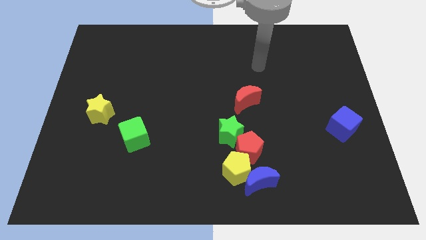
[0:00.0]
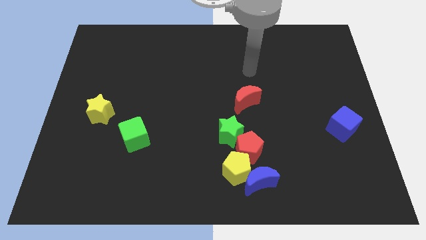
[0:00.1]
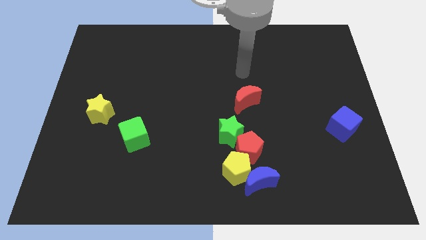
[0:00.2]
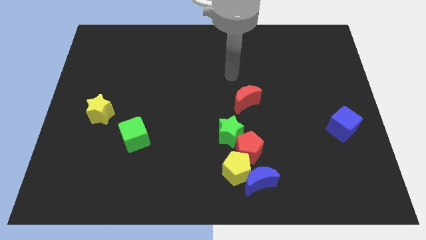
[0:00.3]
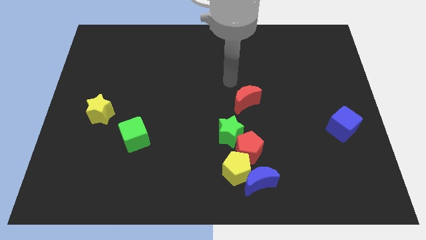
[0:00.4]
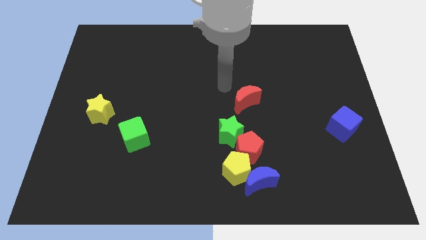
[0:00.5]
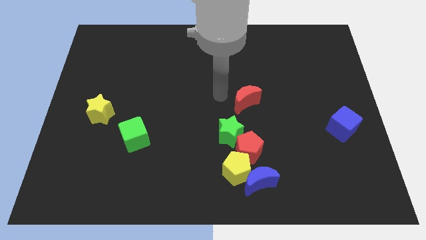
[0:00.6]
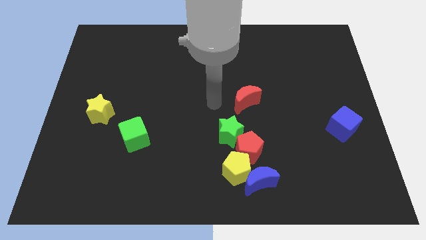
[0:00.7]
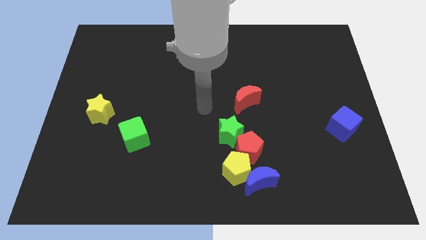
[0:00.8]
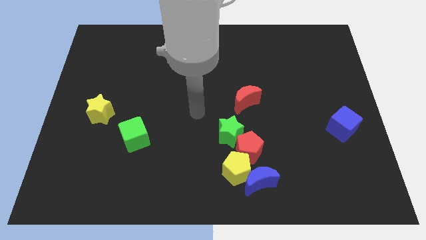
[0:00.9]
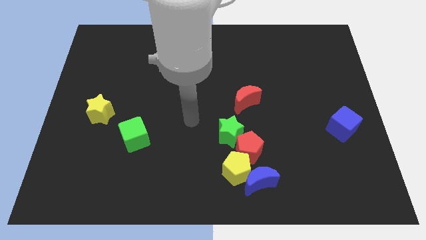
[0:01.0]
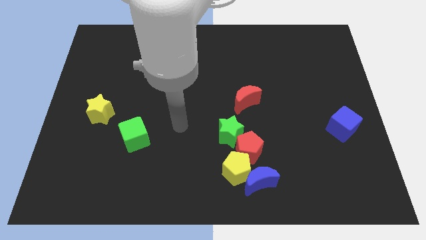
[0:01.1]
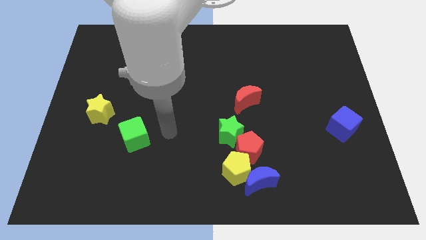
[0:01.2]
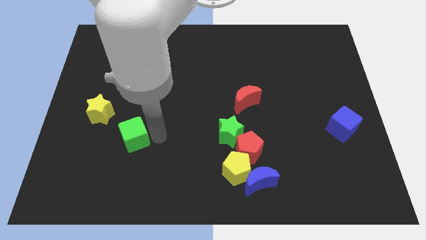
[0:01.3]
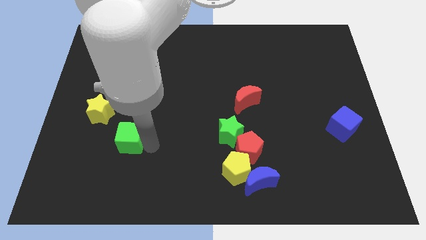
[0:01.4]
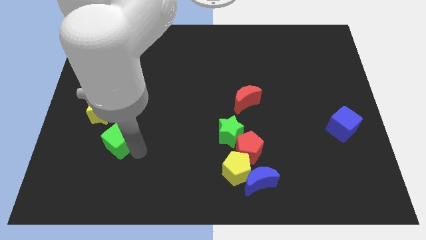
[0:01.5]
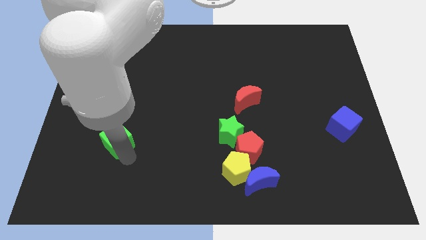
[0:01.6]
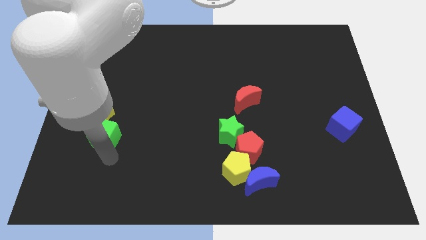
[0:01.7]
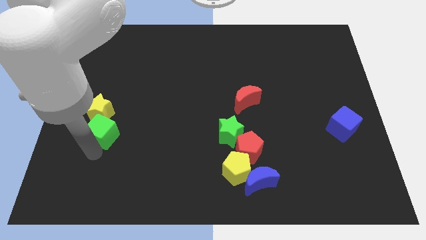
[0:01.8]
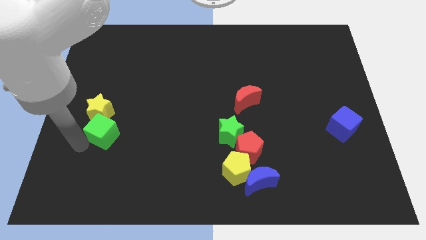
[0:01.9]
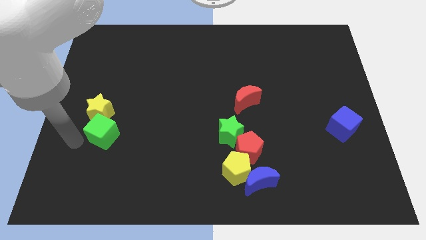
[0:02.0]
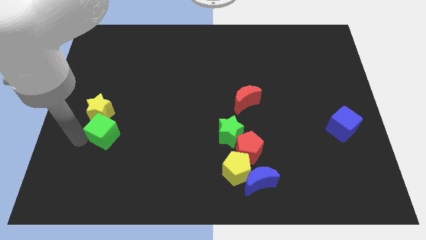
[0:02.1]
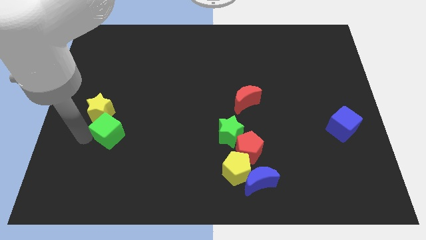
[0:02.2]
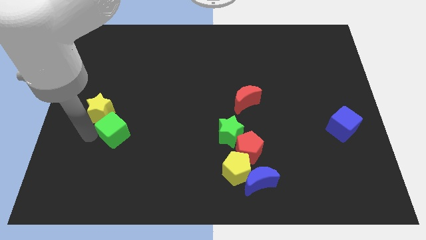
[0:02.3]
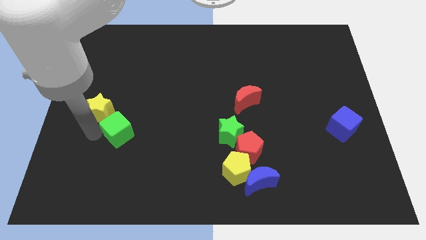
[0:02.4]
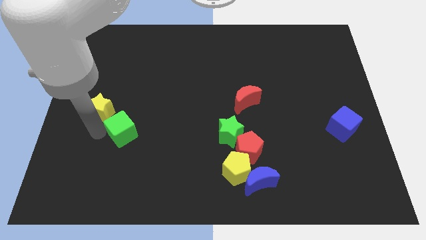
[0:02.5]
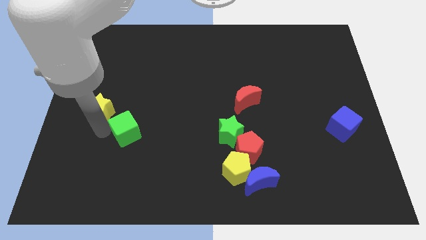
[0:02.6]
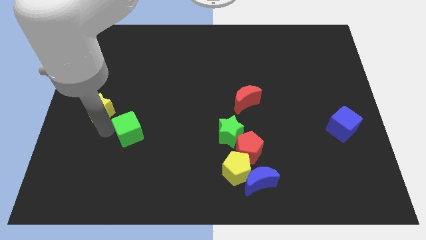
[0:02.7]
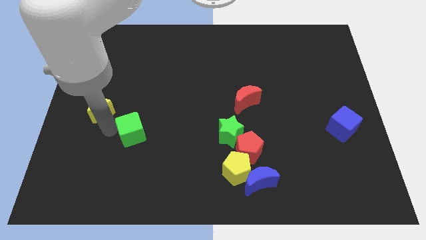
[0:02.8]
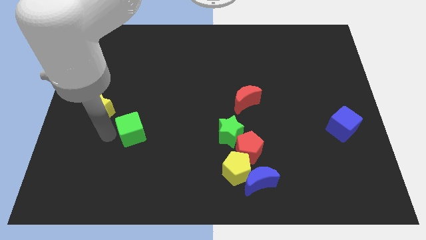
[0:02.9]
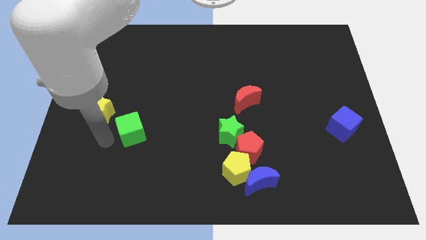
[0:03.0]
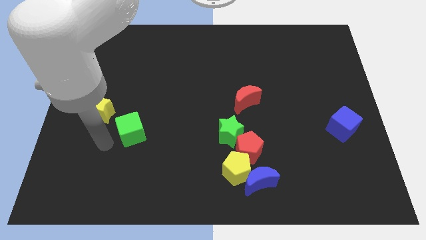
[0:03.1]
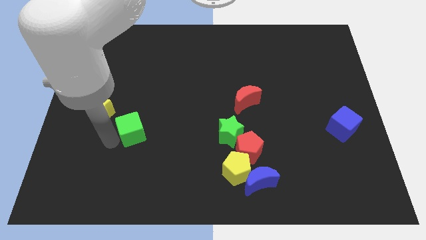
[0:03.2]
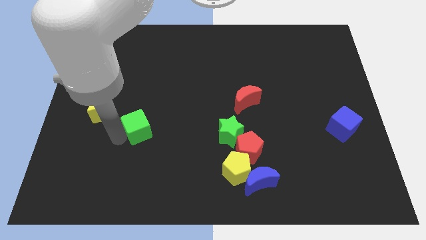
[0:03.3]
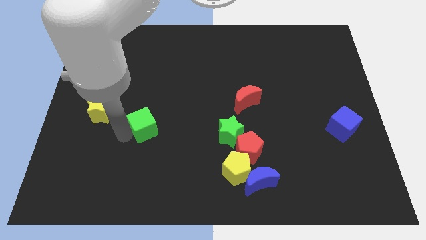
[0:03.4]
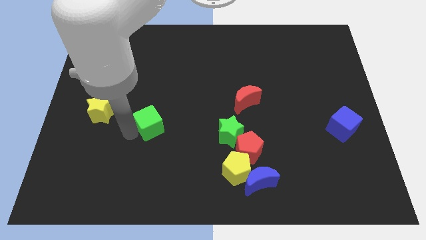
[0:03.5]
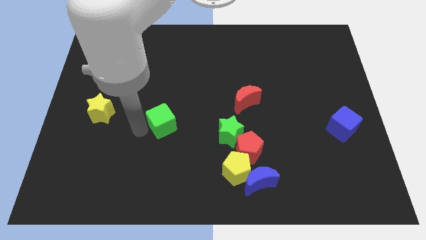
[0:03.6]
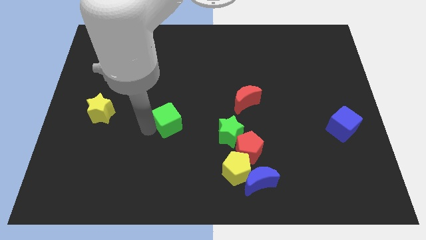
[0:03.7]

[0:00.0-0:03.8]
push the green cube somewhat diagonally upwards and to the right

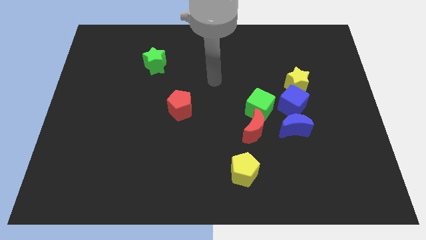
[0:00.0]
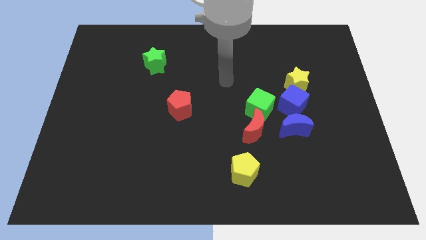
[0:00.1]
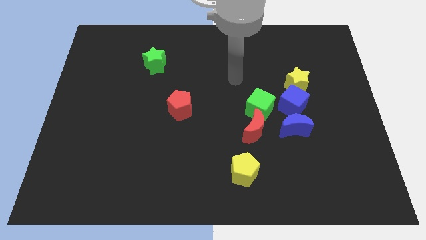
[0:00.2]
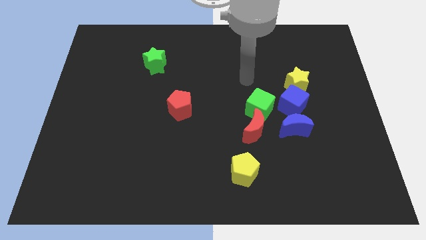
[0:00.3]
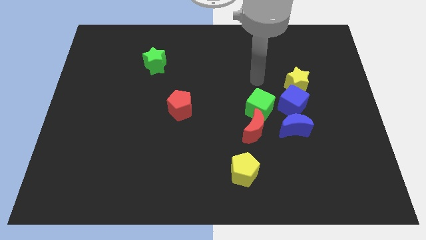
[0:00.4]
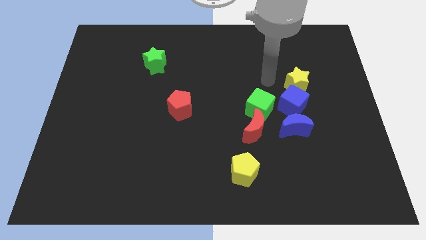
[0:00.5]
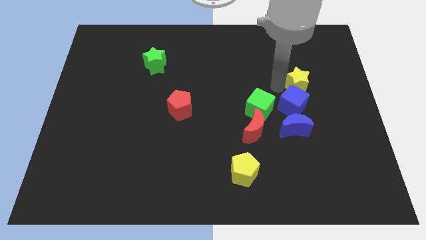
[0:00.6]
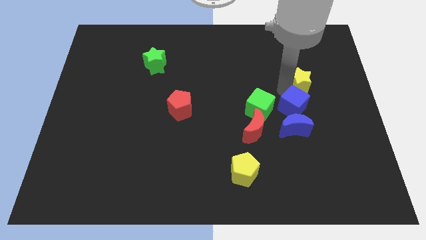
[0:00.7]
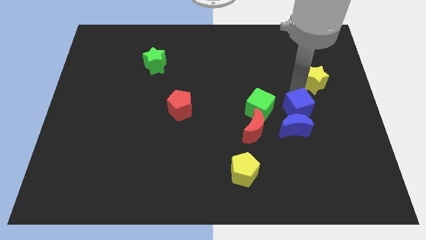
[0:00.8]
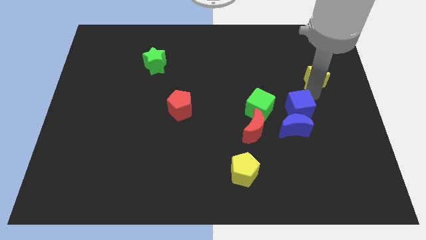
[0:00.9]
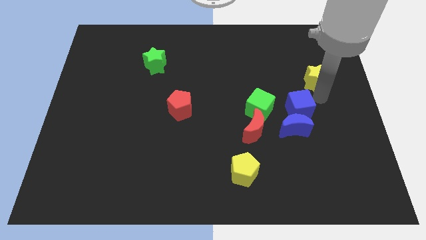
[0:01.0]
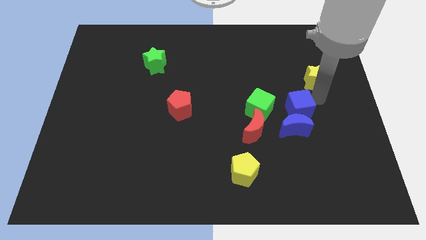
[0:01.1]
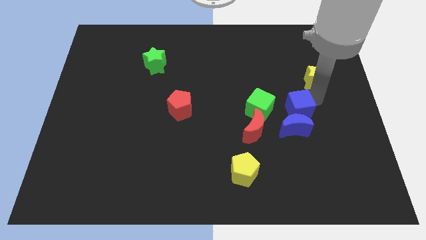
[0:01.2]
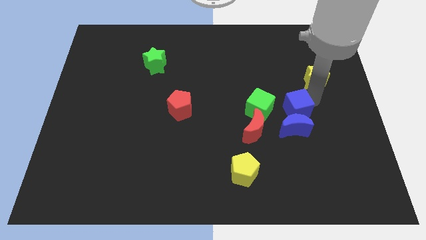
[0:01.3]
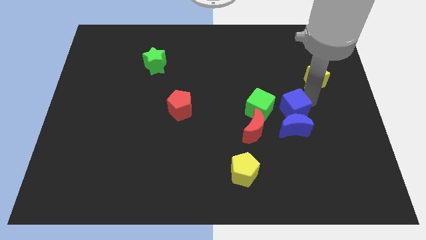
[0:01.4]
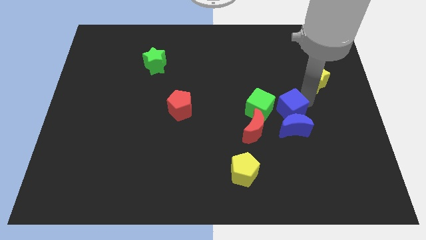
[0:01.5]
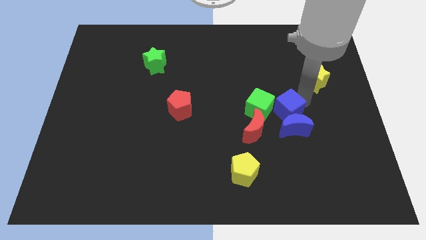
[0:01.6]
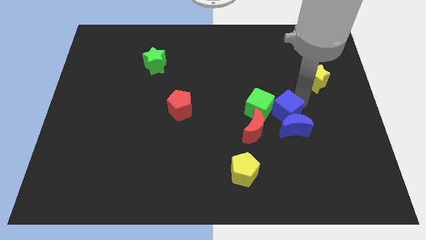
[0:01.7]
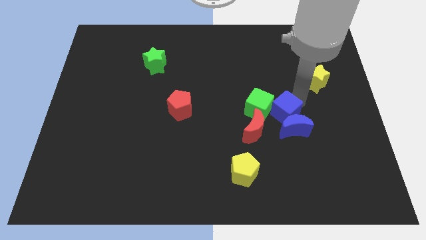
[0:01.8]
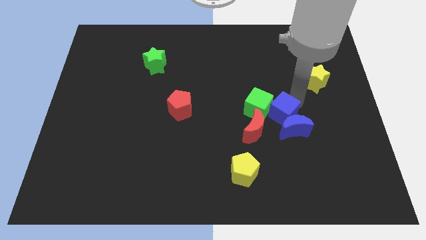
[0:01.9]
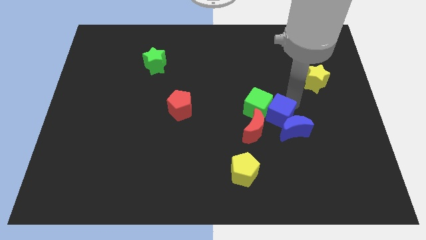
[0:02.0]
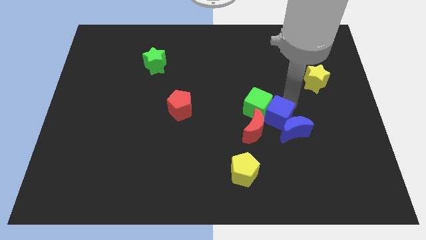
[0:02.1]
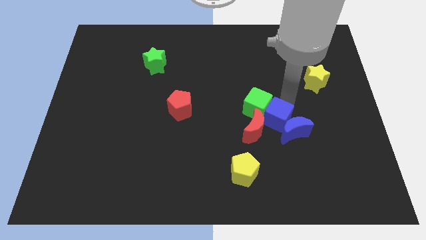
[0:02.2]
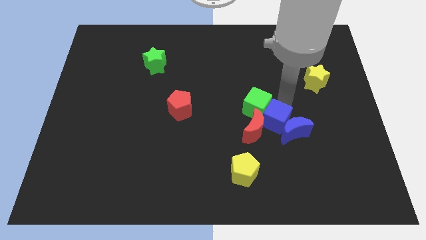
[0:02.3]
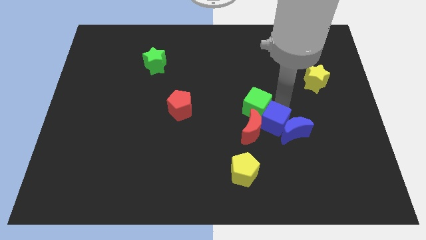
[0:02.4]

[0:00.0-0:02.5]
push the blue cube slightly down and left

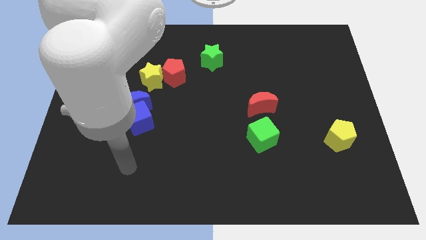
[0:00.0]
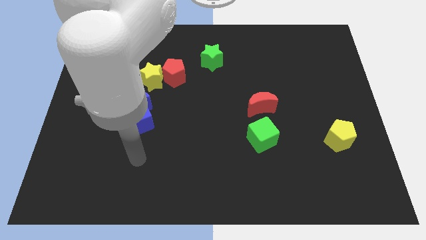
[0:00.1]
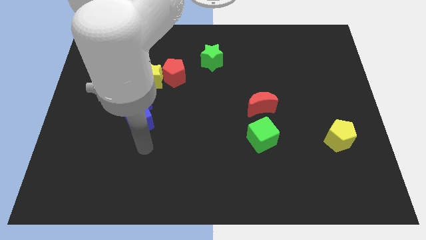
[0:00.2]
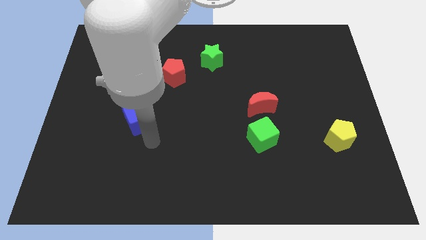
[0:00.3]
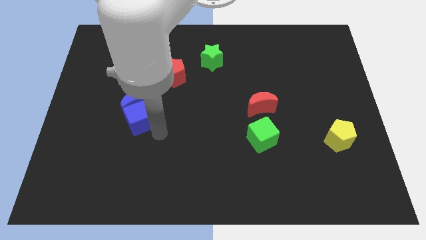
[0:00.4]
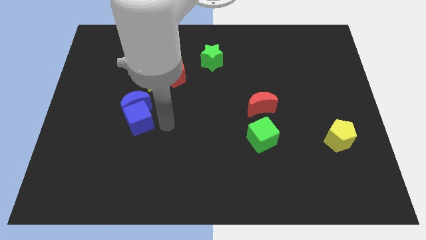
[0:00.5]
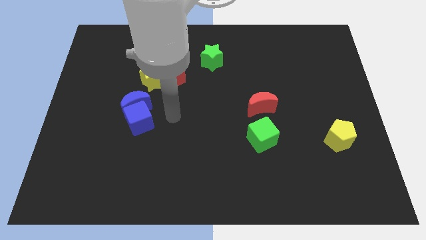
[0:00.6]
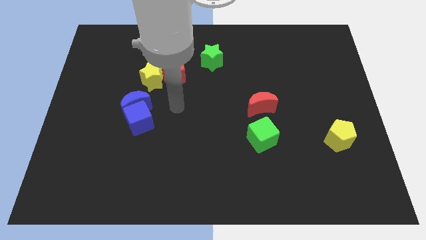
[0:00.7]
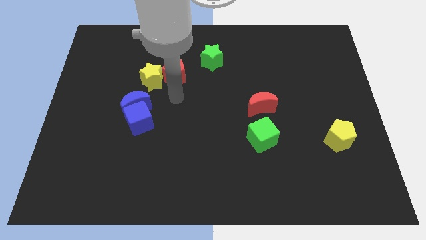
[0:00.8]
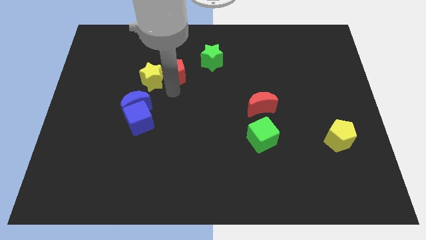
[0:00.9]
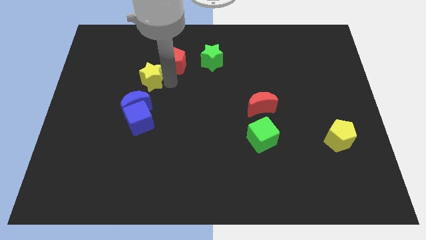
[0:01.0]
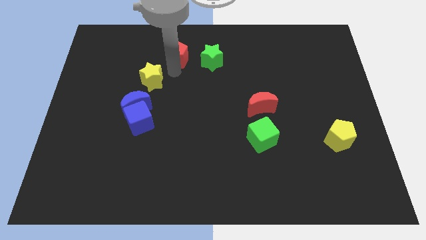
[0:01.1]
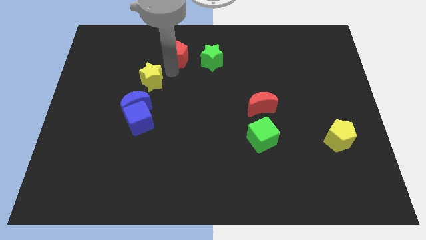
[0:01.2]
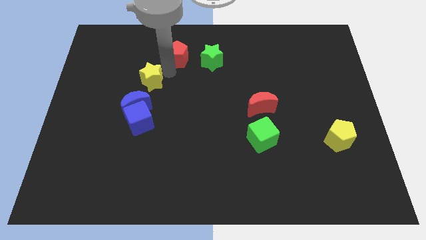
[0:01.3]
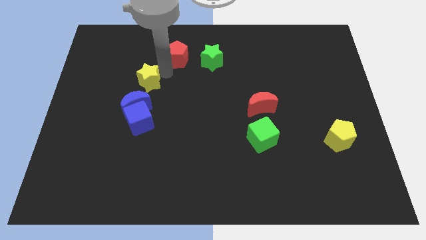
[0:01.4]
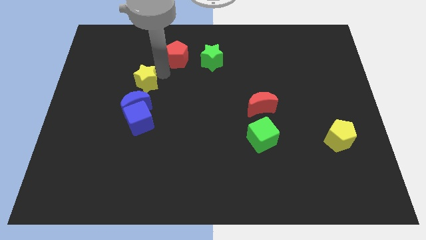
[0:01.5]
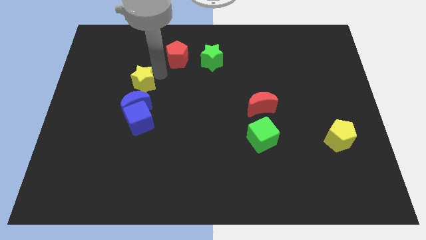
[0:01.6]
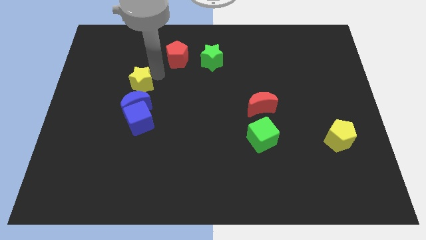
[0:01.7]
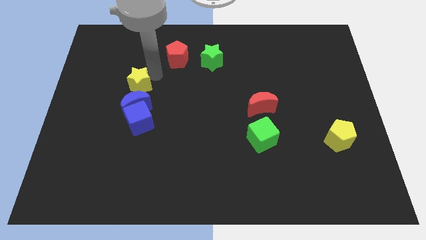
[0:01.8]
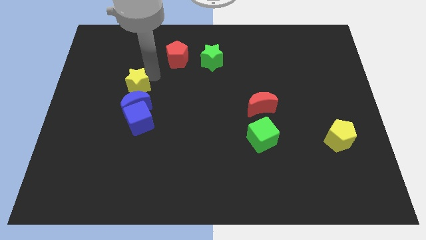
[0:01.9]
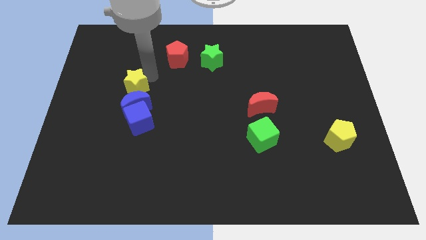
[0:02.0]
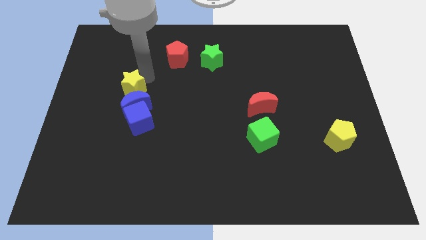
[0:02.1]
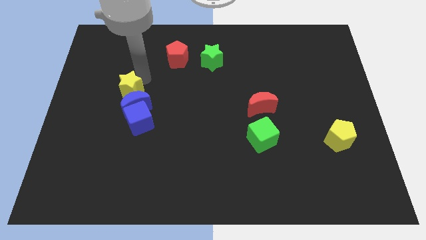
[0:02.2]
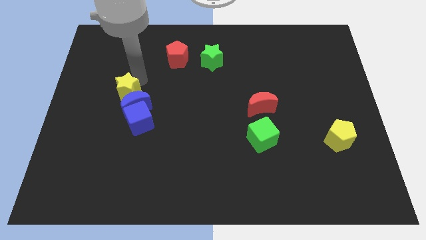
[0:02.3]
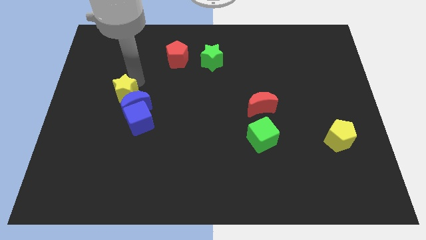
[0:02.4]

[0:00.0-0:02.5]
slightly push the yellow star downwards and to the left
